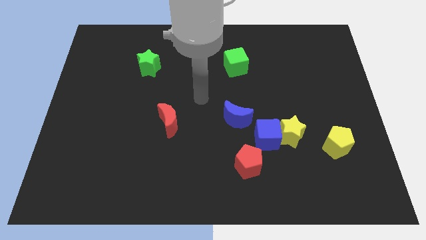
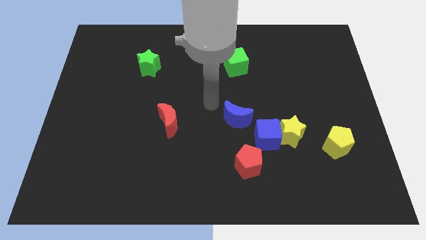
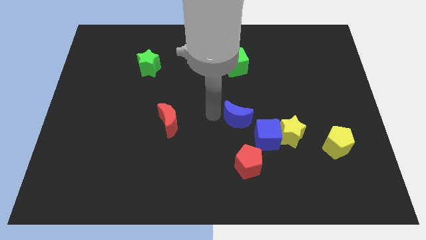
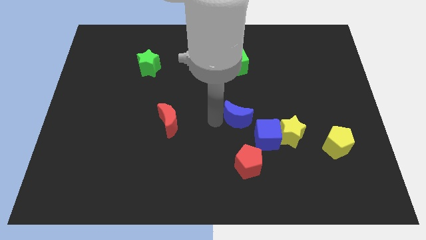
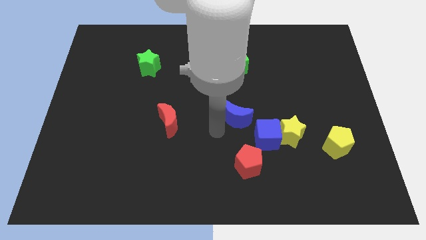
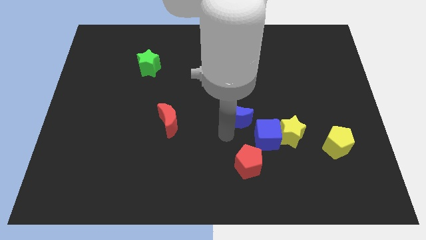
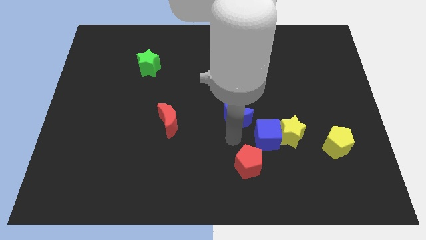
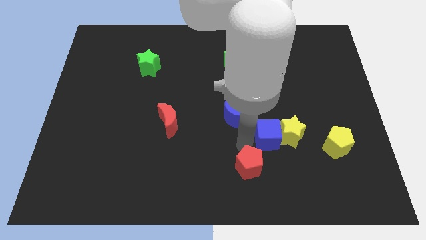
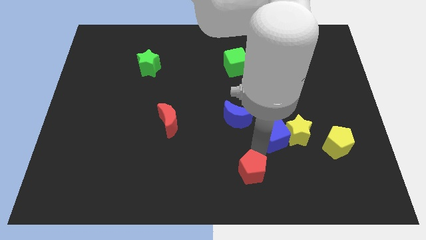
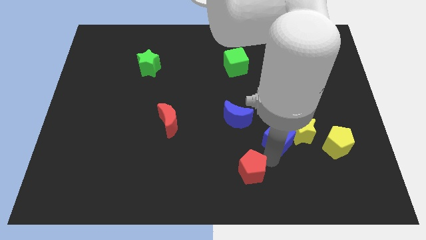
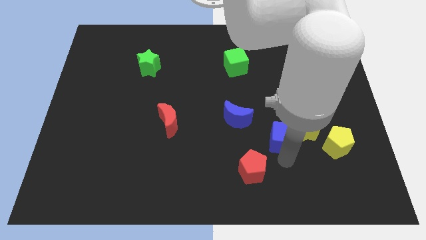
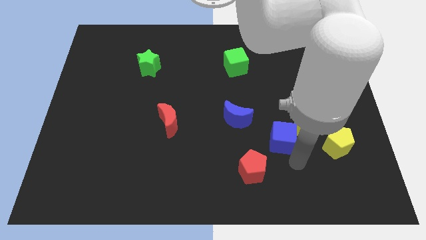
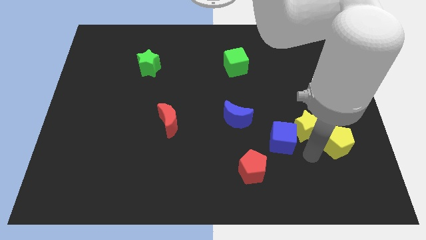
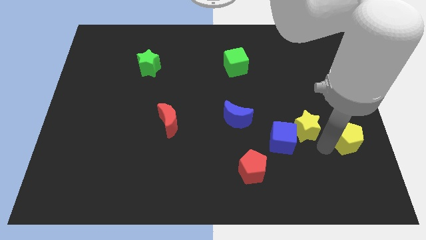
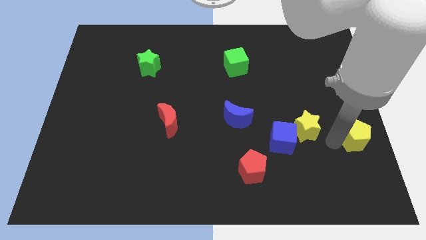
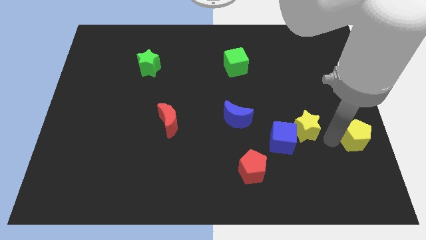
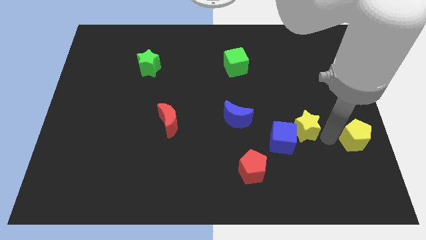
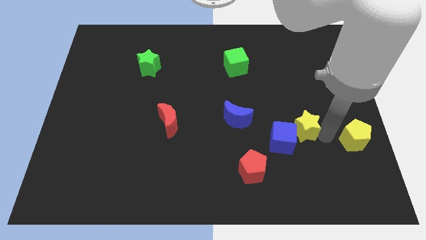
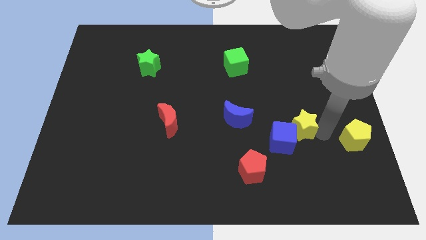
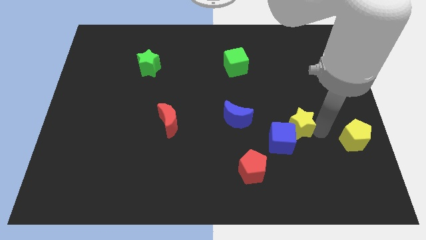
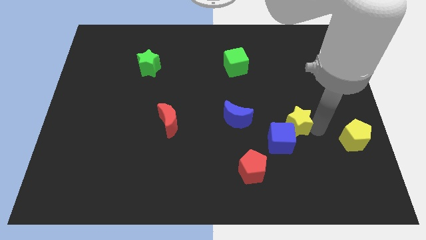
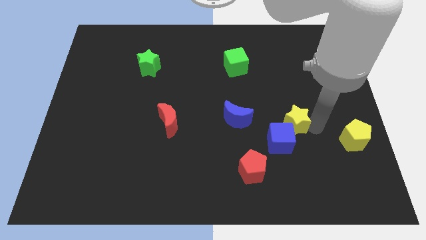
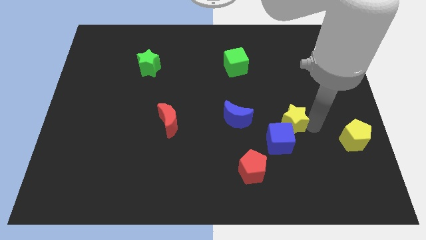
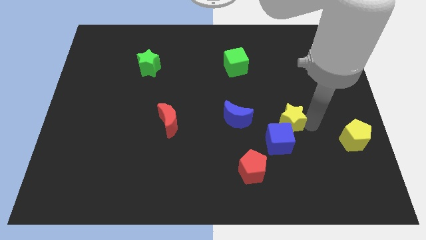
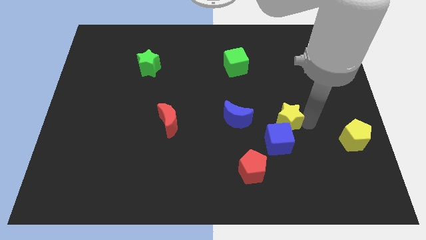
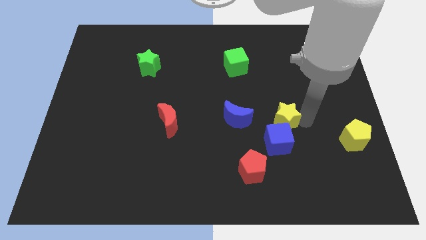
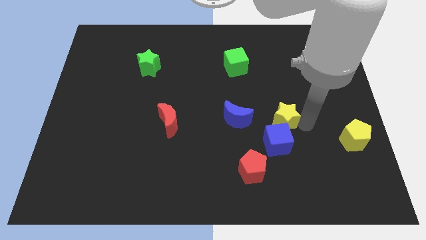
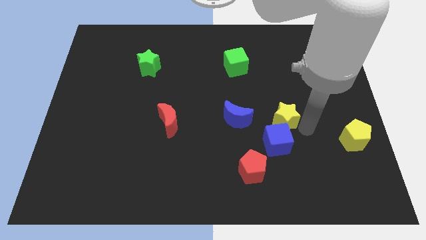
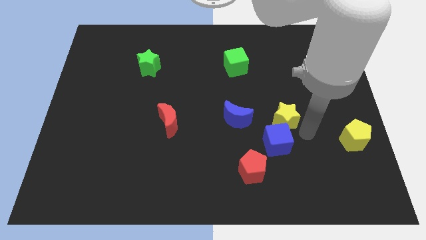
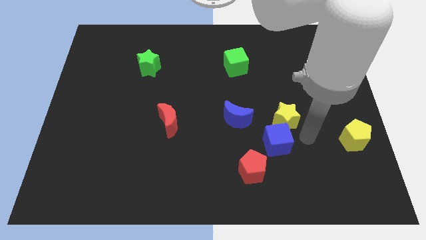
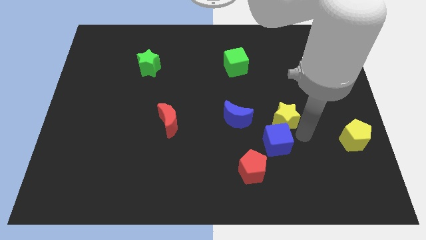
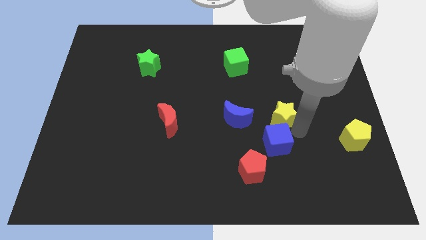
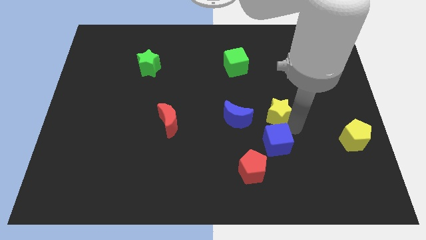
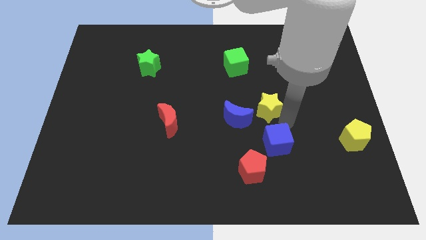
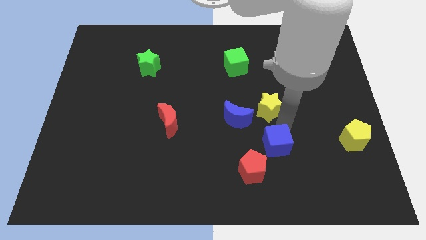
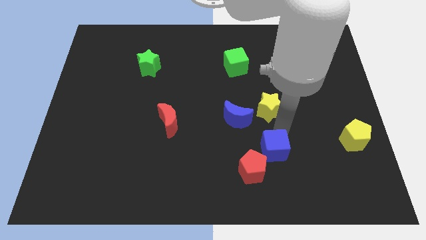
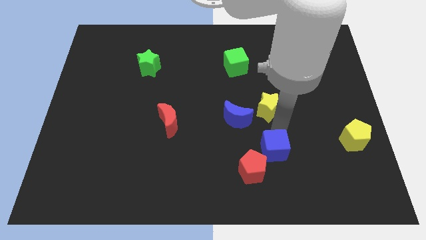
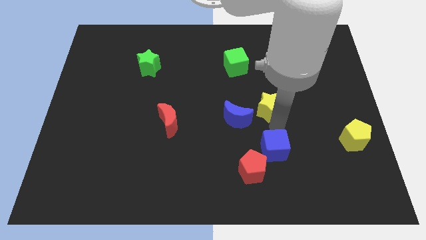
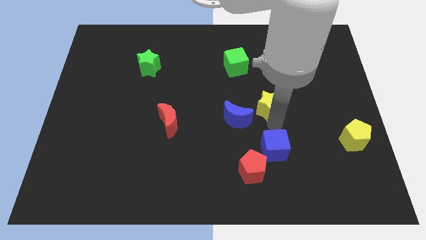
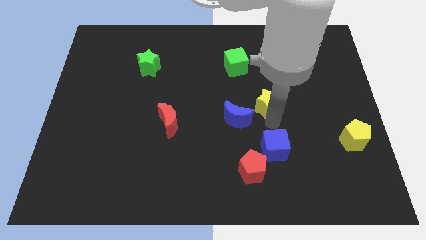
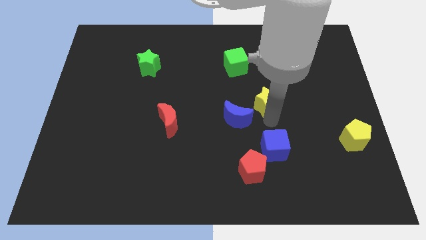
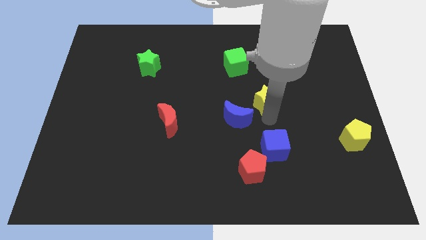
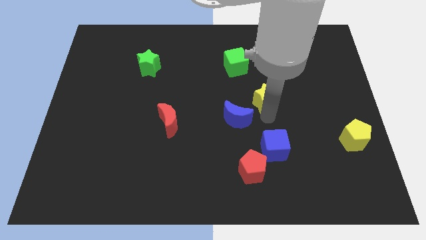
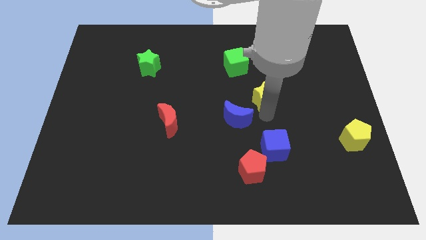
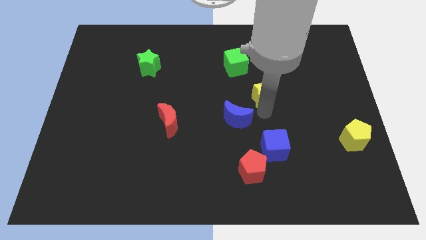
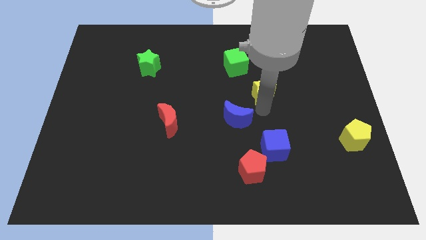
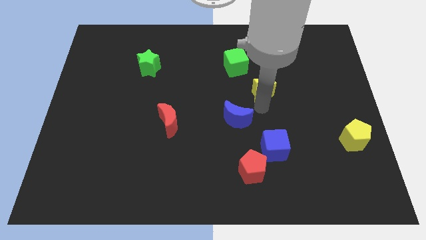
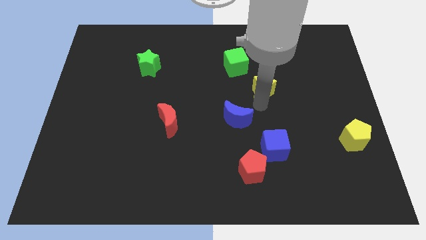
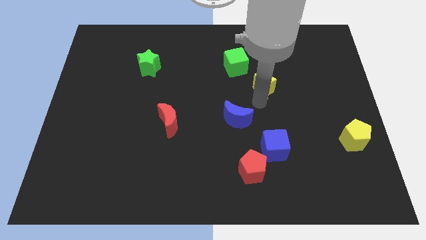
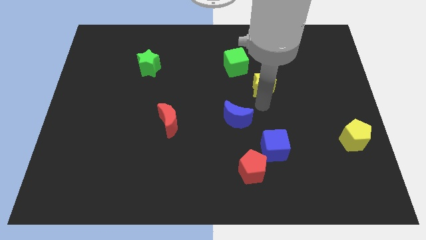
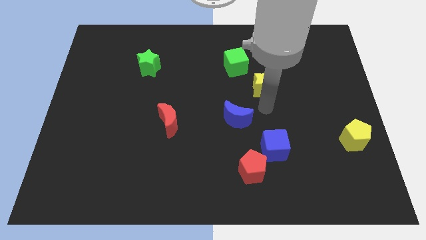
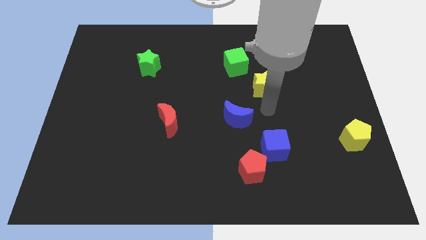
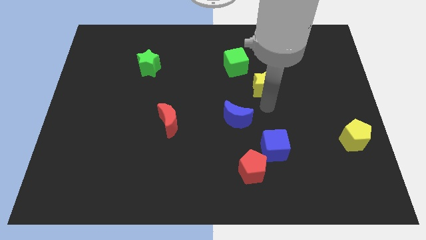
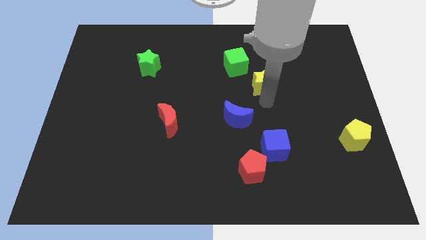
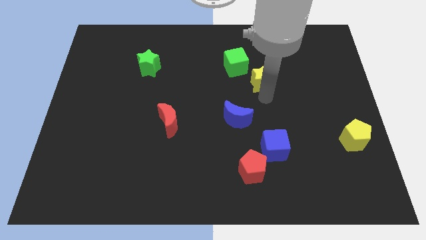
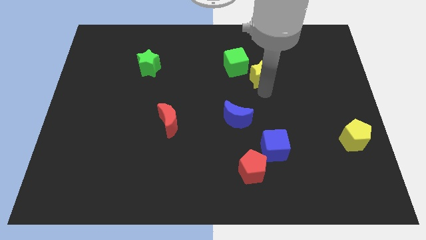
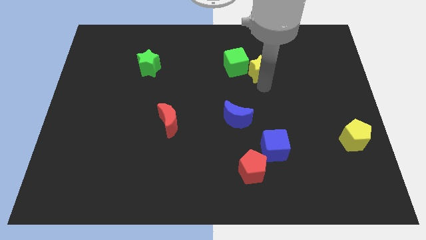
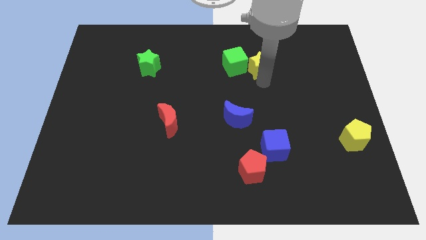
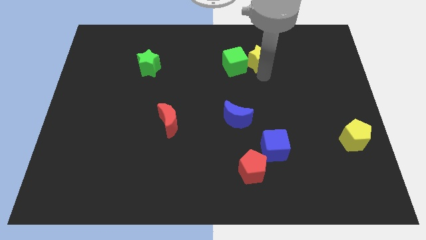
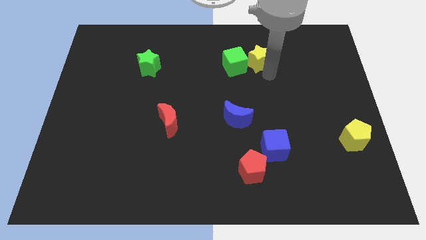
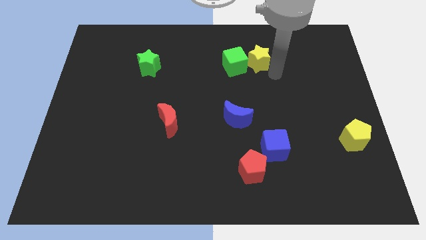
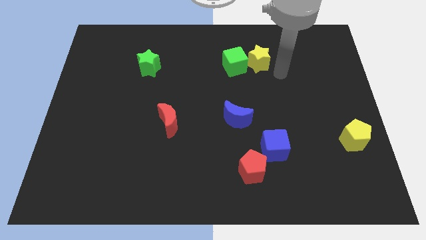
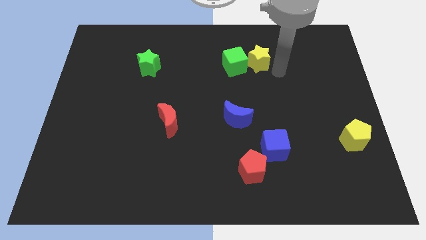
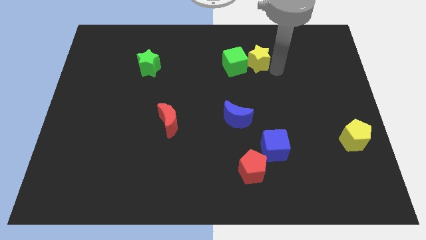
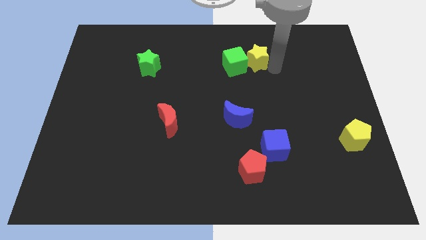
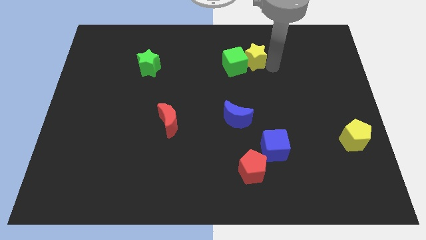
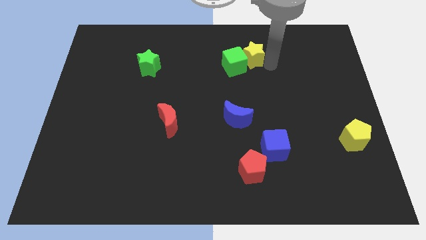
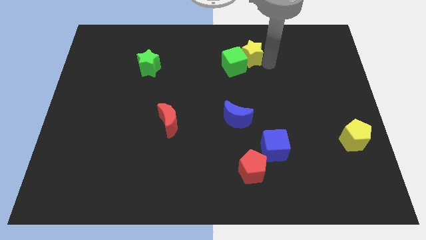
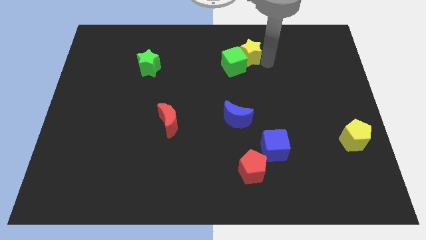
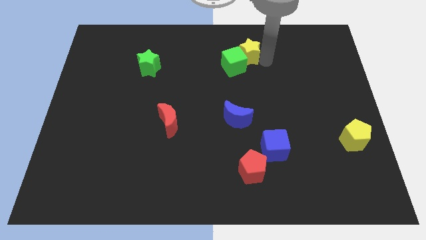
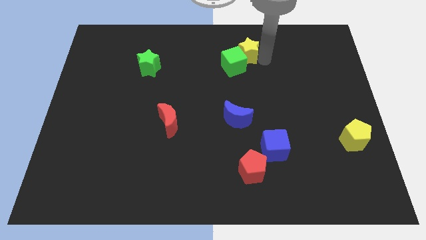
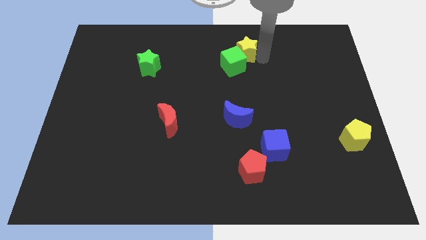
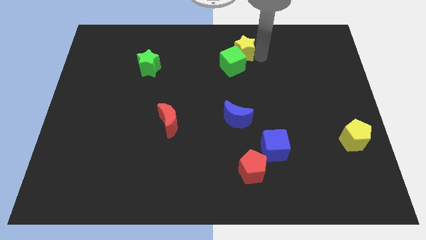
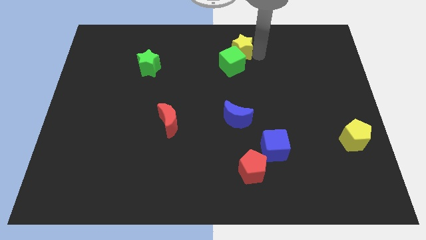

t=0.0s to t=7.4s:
push the yellow star to the top
